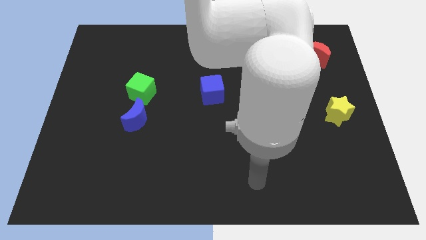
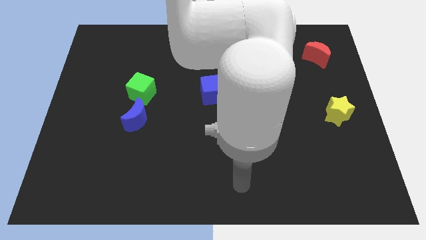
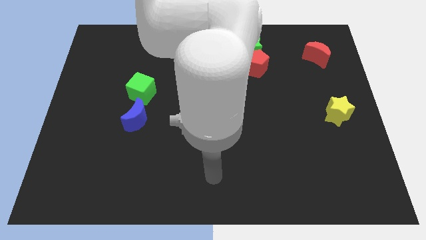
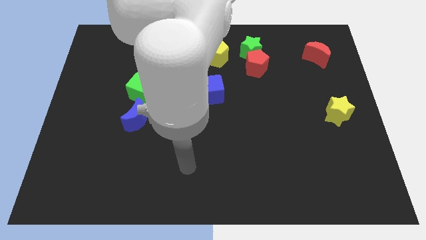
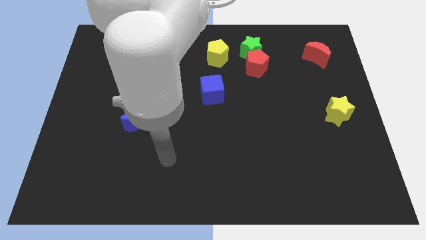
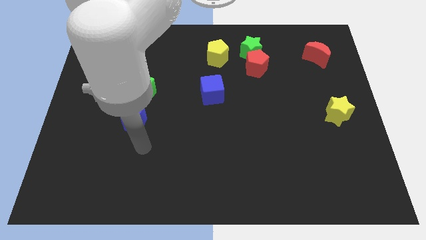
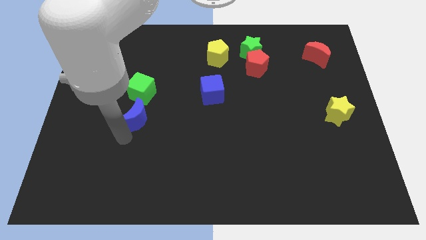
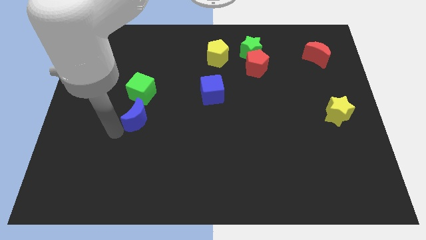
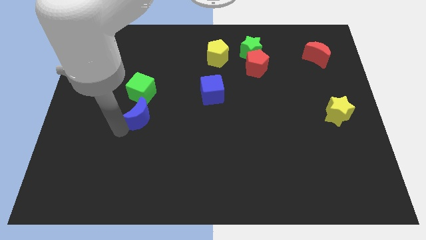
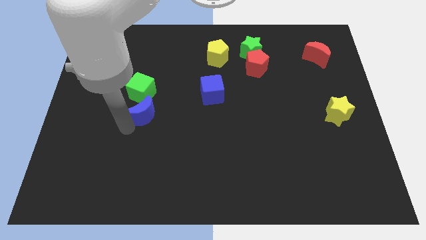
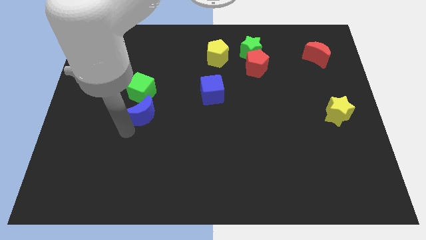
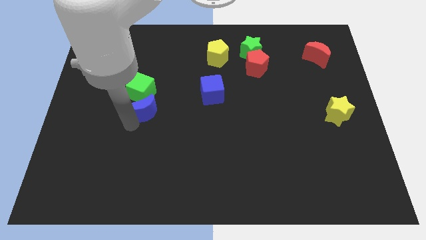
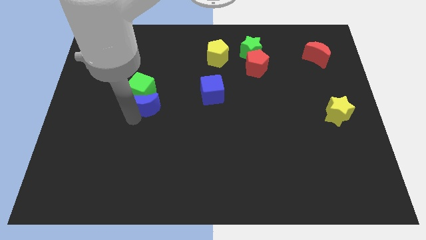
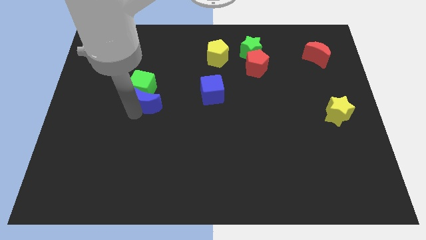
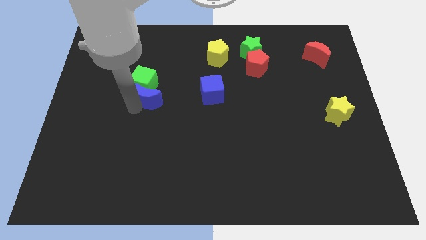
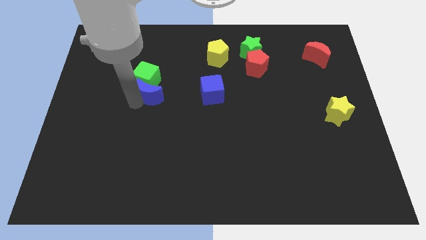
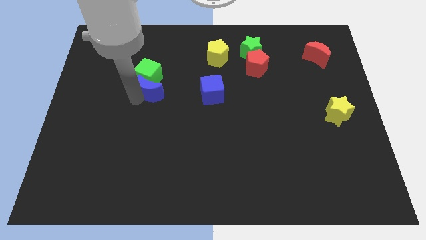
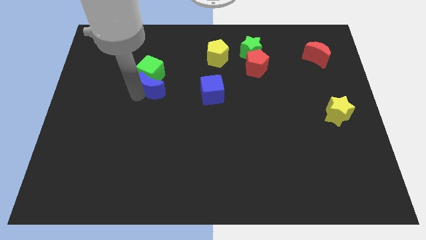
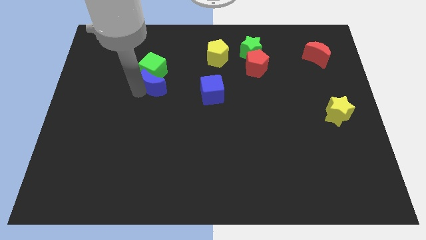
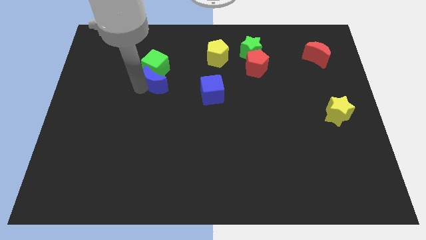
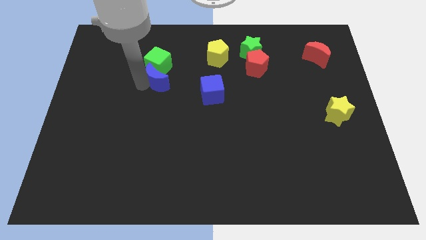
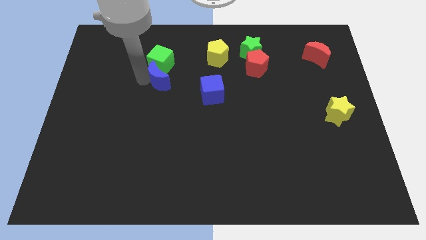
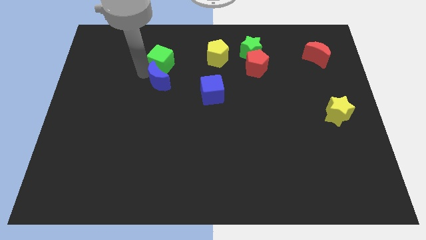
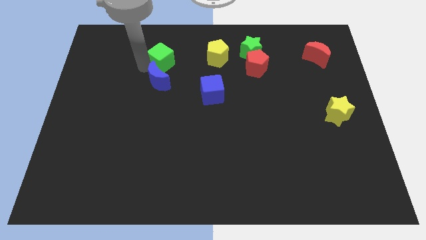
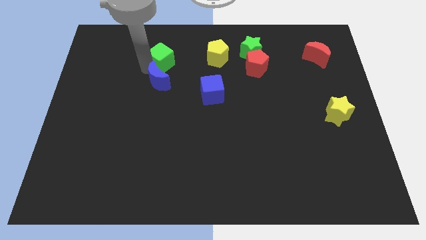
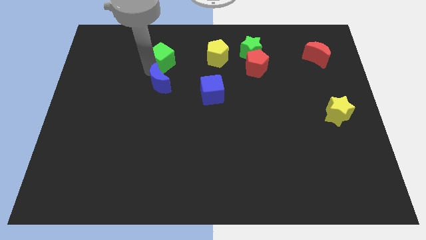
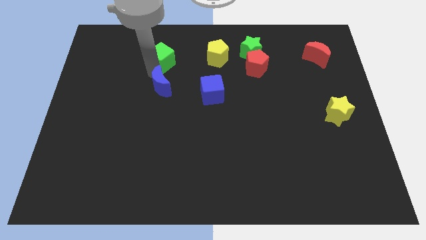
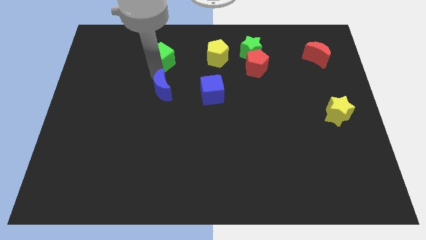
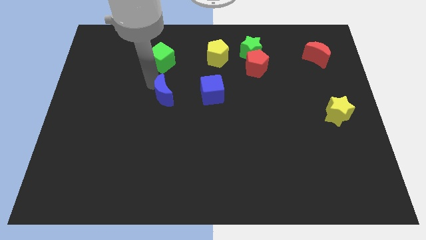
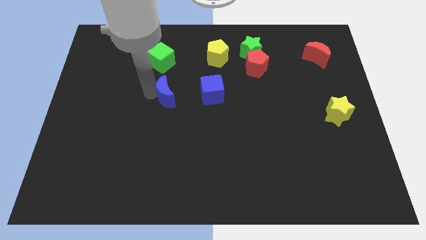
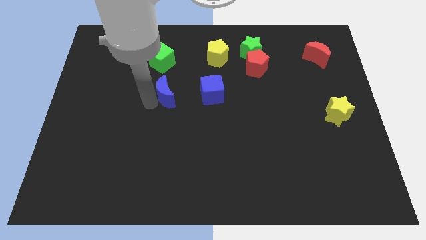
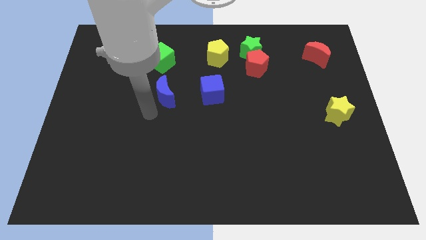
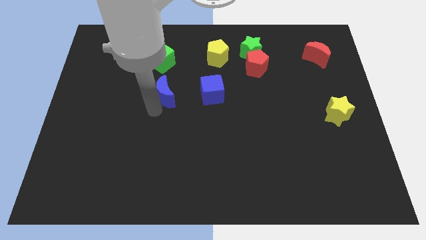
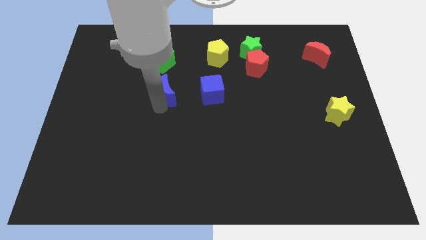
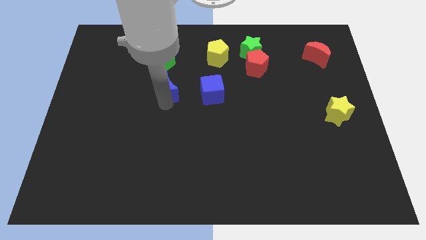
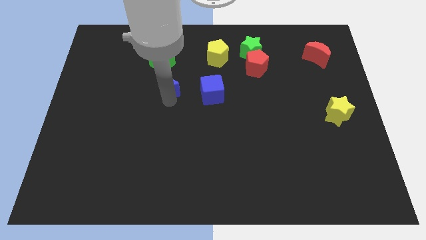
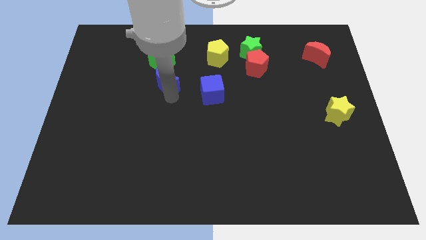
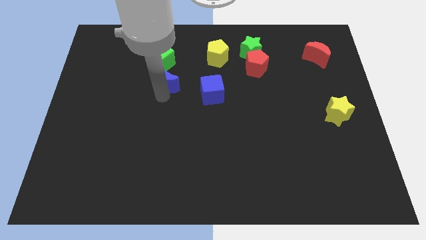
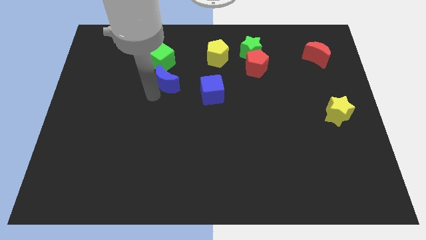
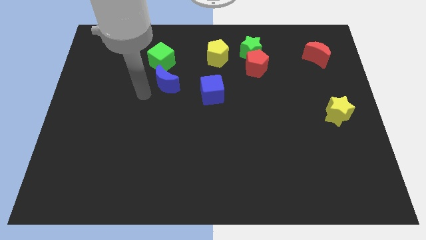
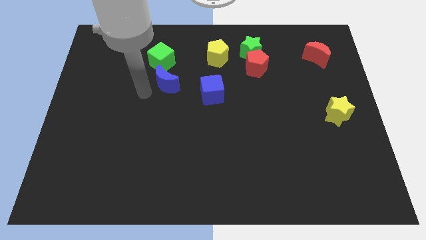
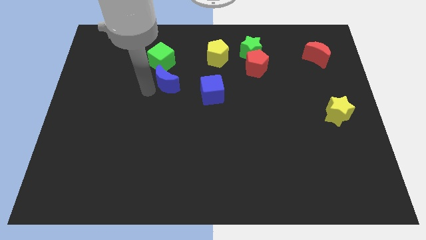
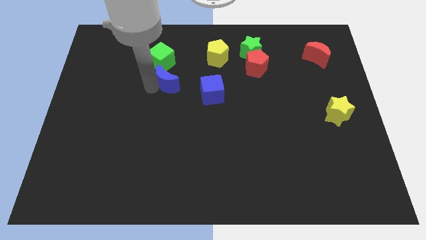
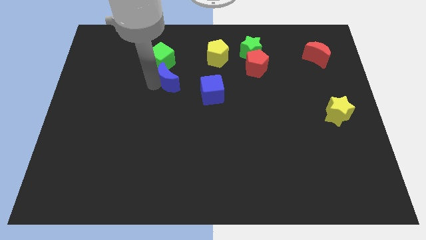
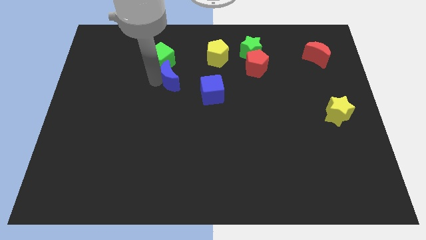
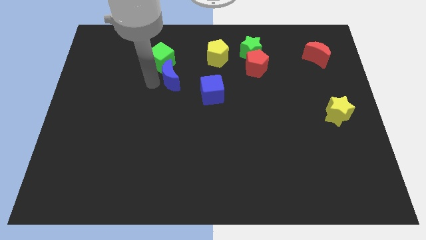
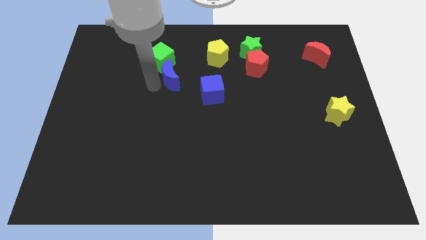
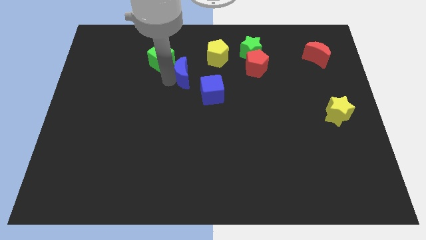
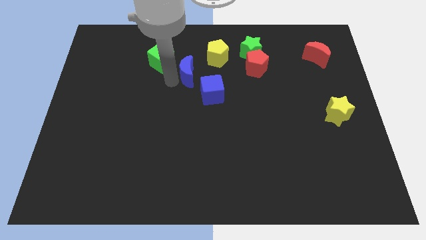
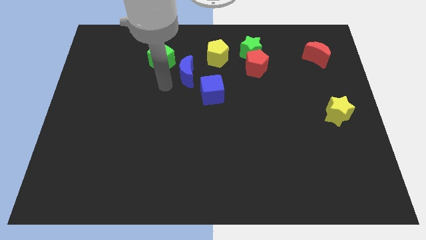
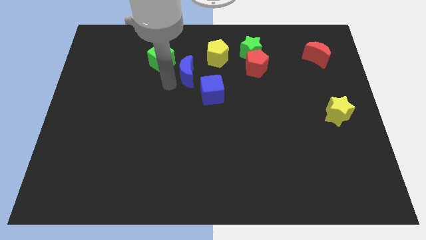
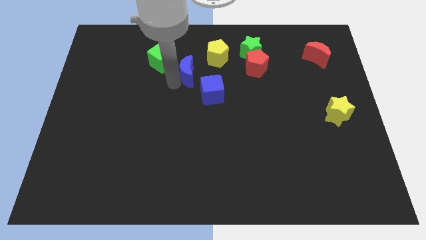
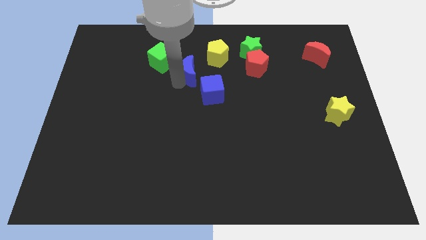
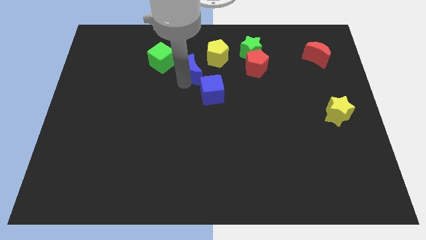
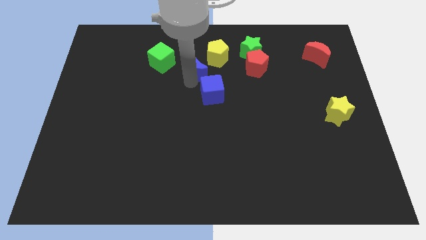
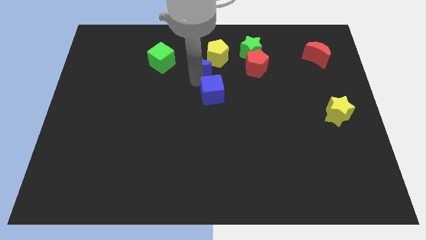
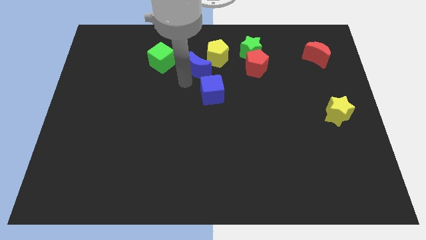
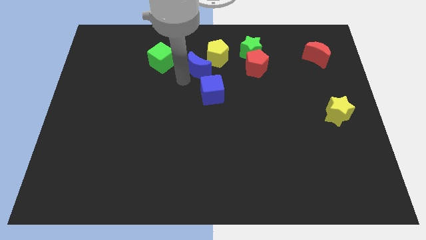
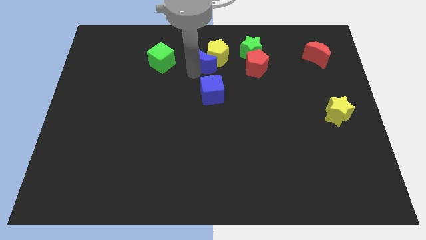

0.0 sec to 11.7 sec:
put the blue moon towards the yellow pentagon

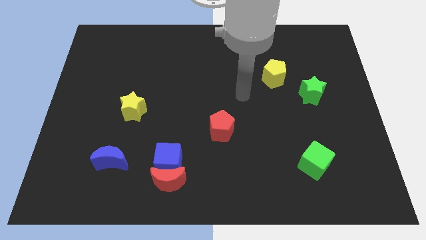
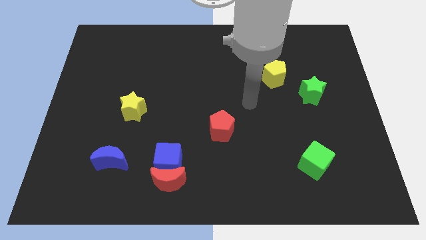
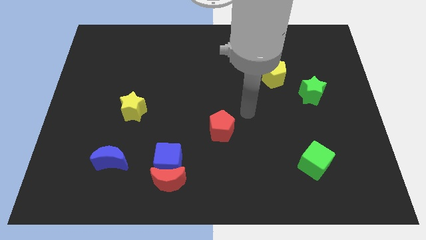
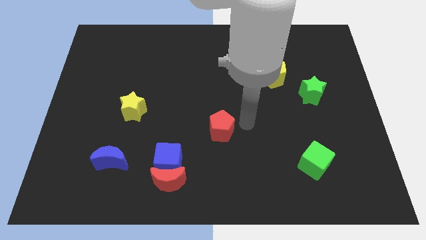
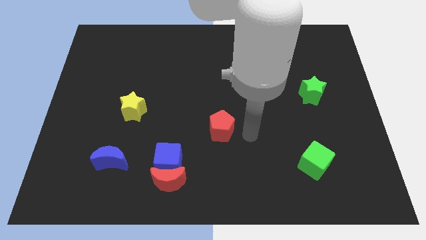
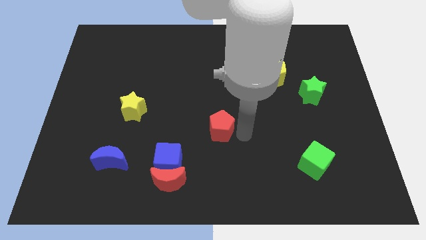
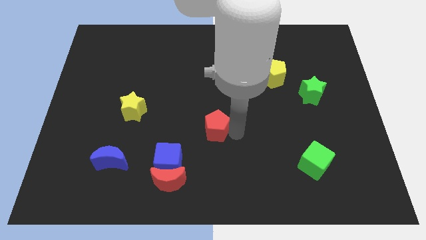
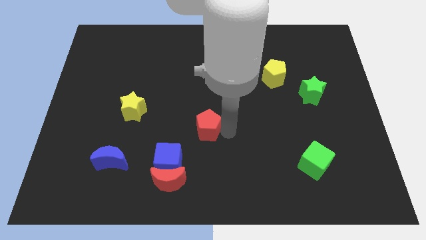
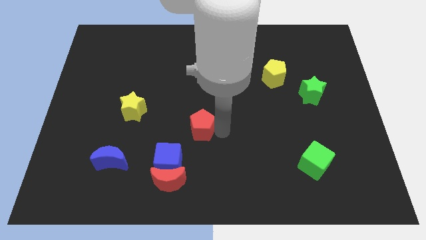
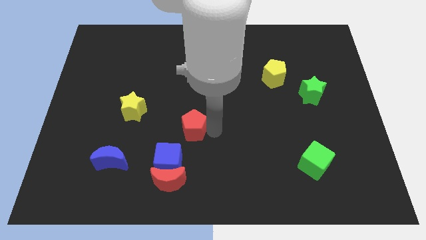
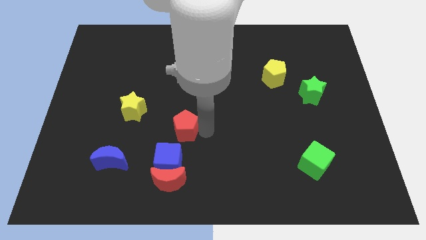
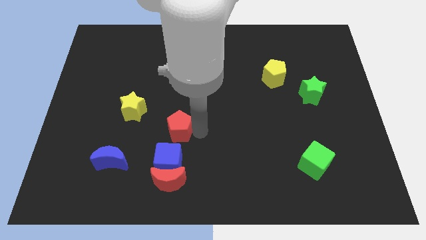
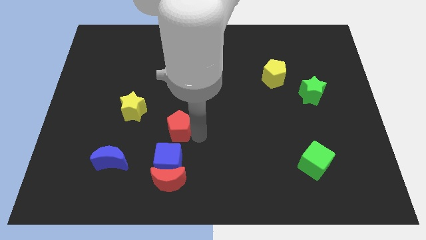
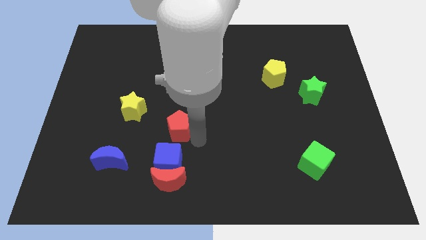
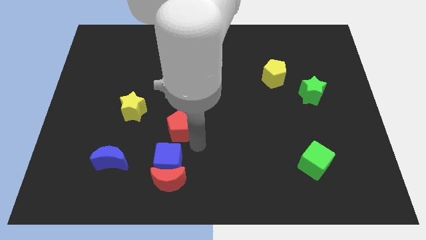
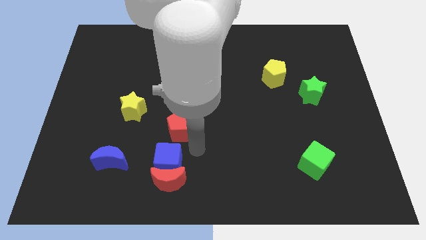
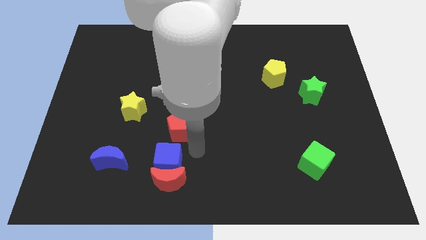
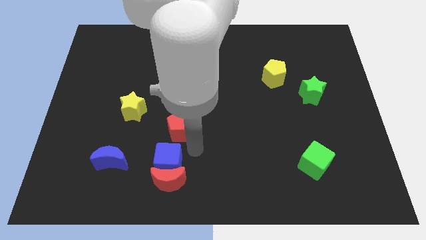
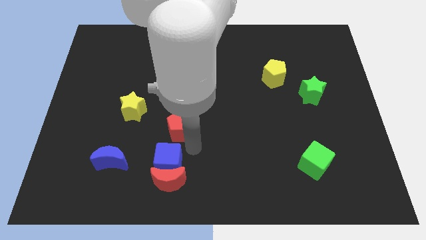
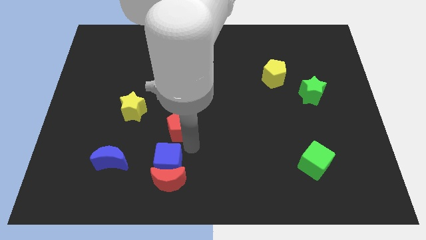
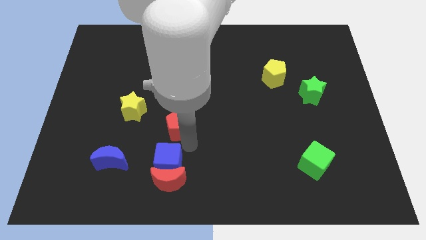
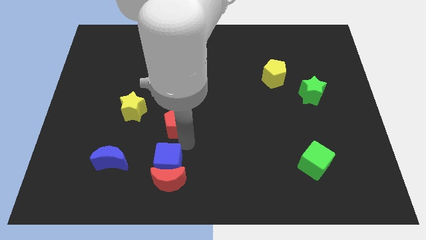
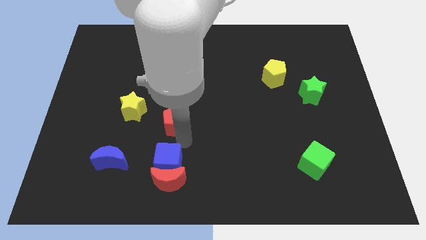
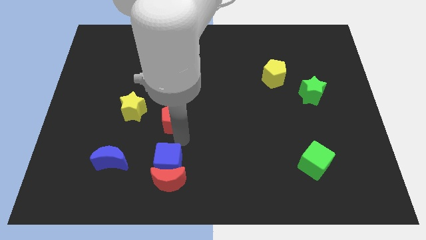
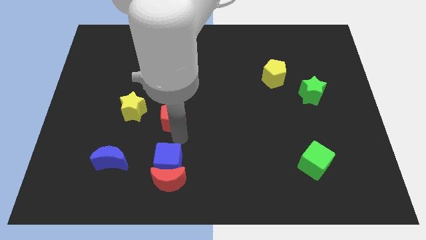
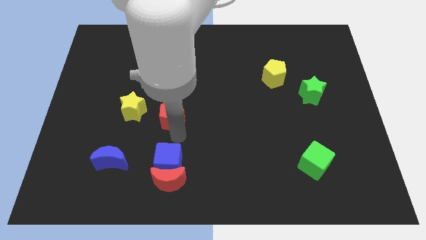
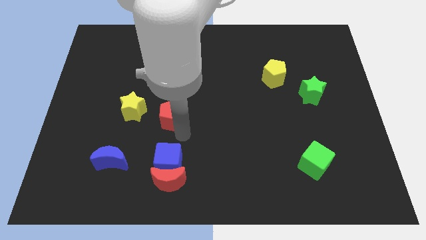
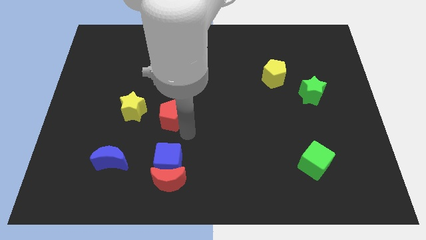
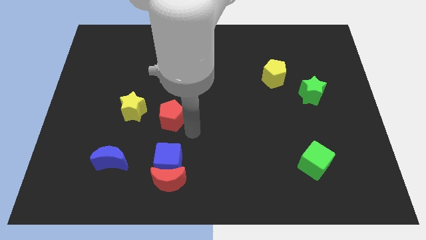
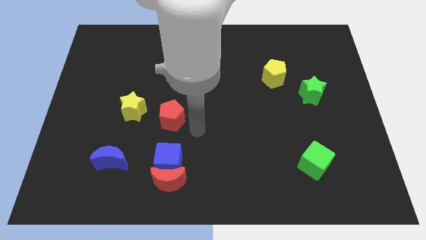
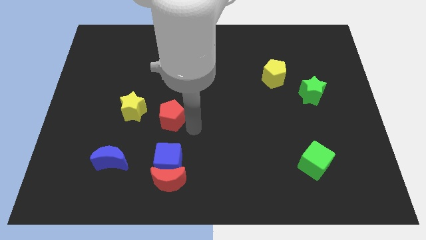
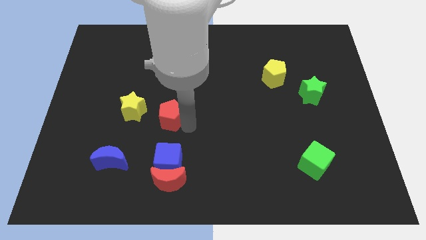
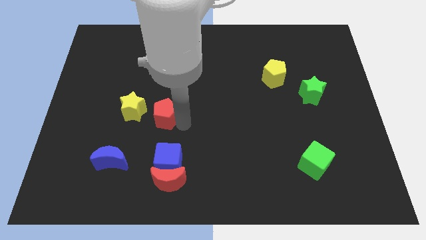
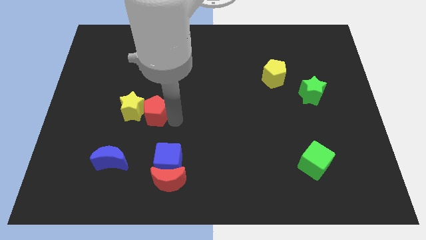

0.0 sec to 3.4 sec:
slide the red pentagon next to the yellow star
